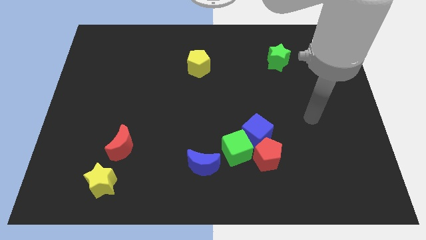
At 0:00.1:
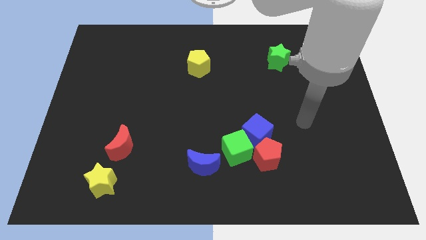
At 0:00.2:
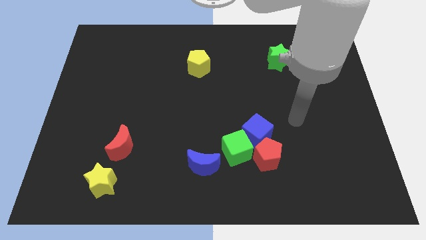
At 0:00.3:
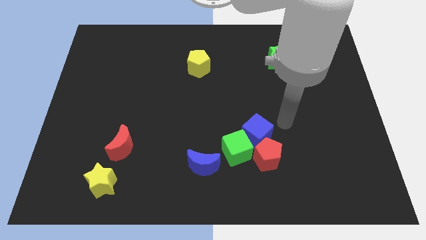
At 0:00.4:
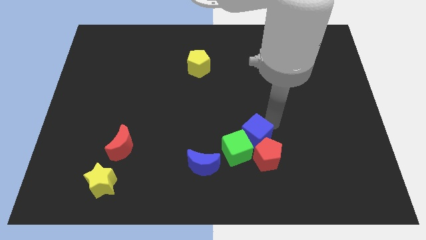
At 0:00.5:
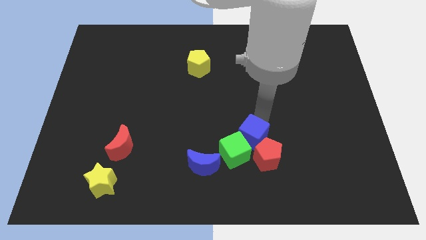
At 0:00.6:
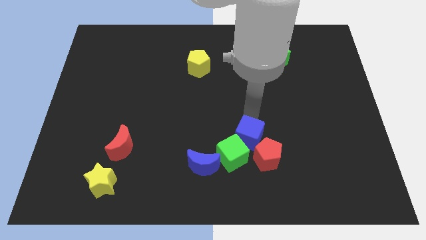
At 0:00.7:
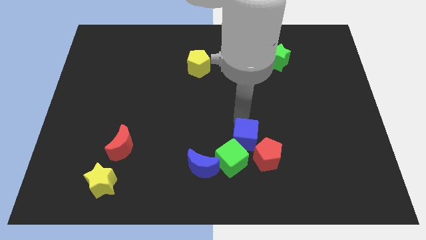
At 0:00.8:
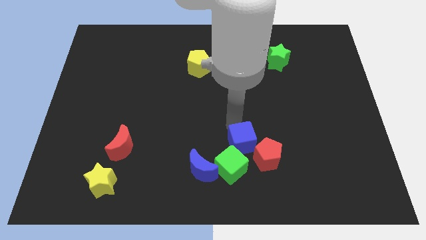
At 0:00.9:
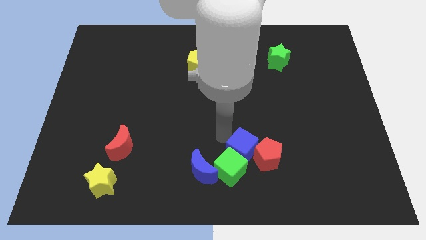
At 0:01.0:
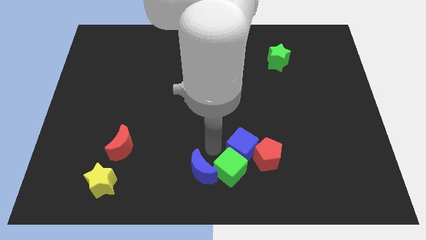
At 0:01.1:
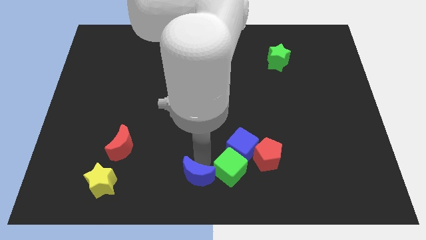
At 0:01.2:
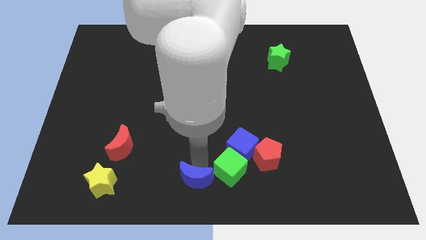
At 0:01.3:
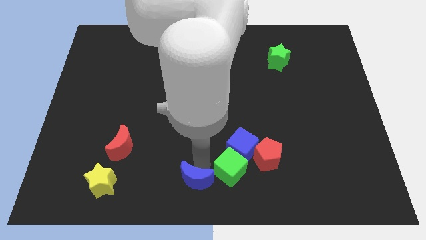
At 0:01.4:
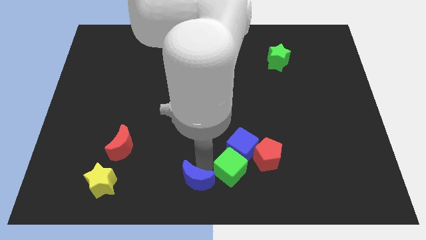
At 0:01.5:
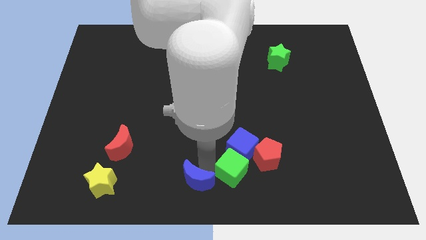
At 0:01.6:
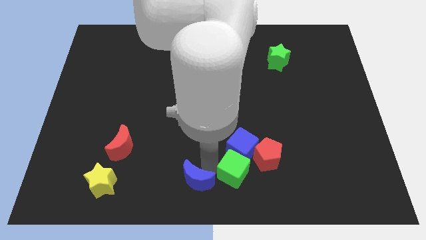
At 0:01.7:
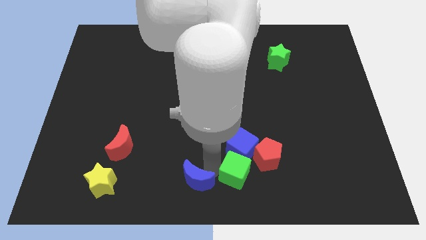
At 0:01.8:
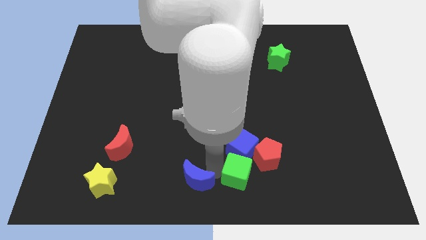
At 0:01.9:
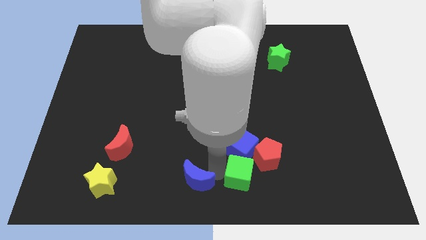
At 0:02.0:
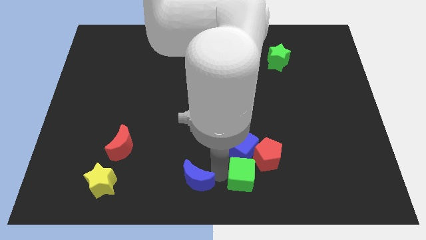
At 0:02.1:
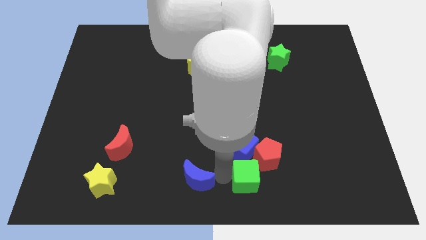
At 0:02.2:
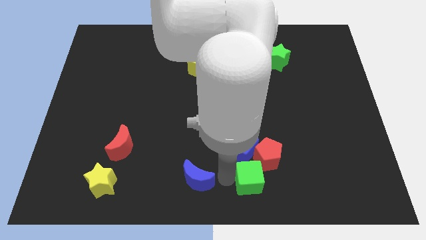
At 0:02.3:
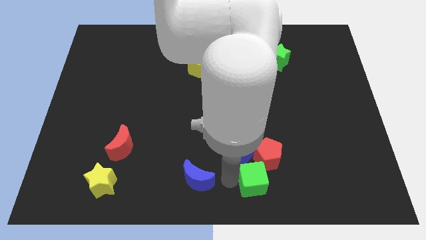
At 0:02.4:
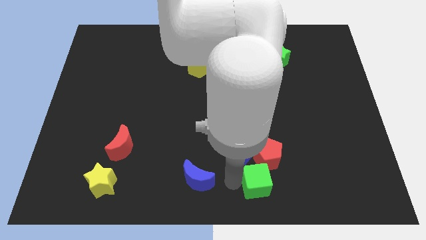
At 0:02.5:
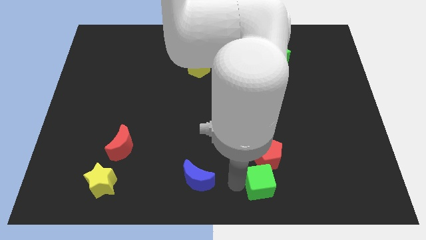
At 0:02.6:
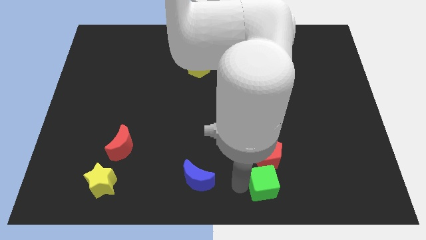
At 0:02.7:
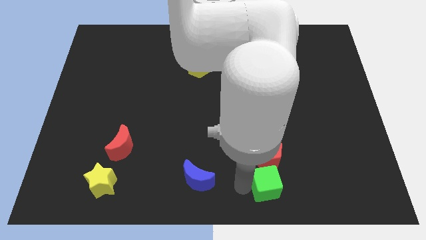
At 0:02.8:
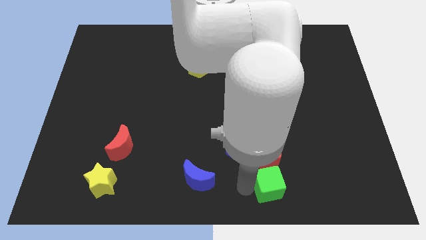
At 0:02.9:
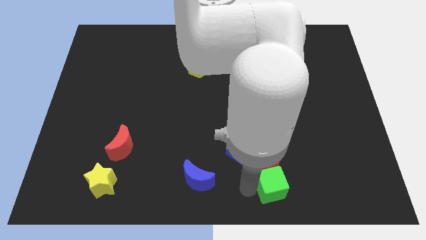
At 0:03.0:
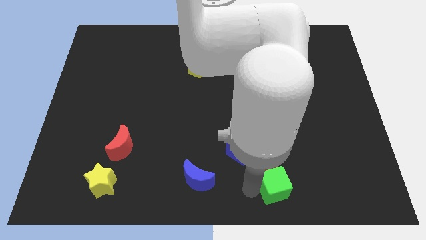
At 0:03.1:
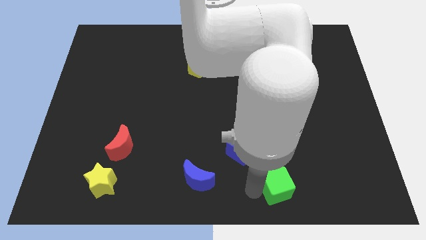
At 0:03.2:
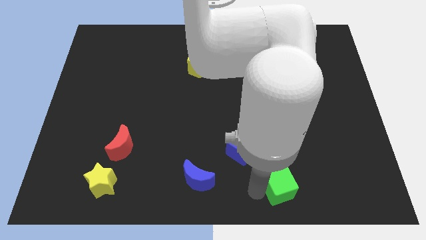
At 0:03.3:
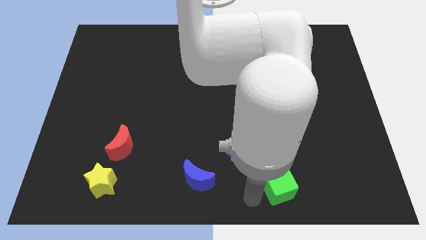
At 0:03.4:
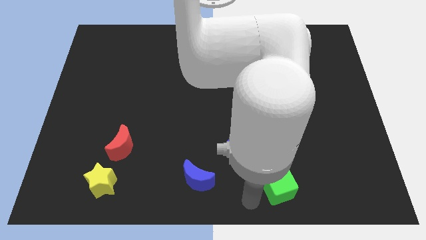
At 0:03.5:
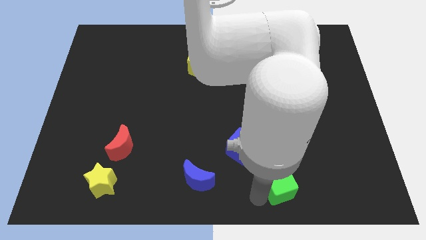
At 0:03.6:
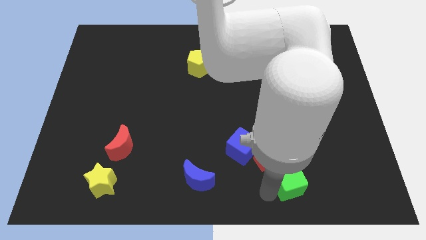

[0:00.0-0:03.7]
push the green cube a bit to the right

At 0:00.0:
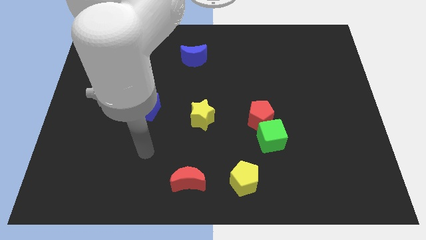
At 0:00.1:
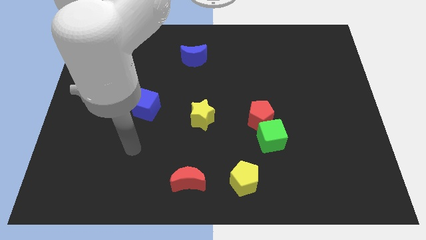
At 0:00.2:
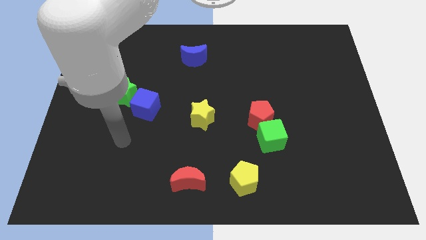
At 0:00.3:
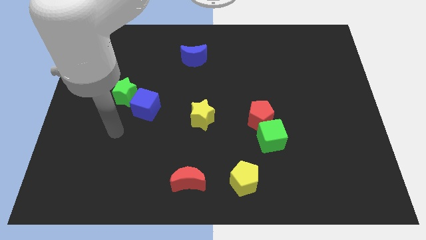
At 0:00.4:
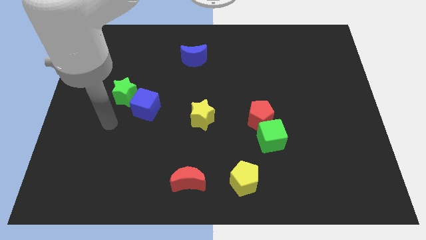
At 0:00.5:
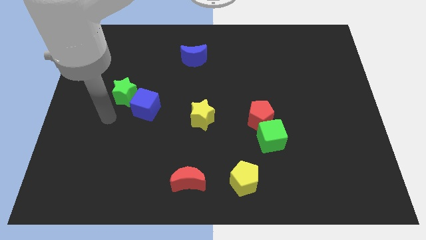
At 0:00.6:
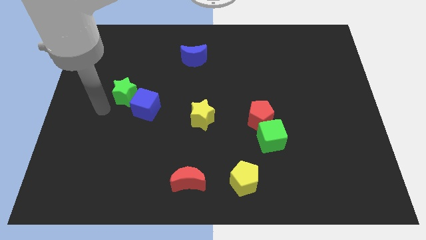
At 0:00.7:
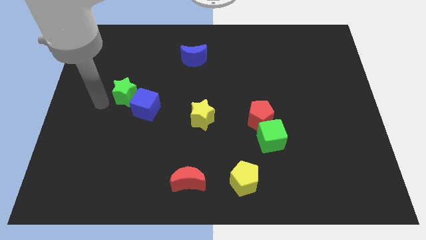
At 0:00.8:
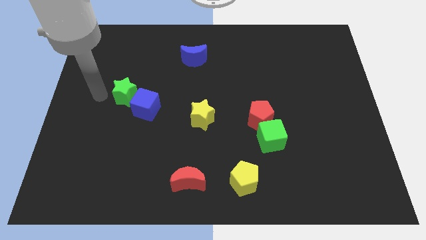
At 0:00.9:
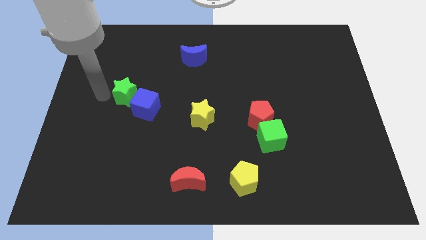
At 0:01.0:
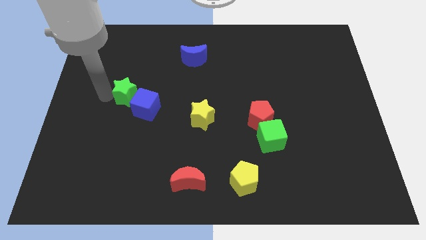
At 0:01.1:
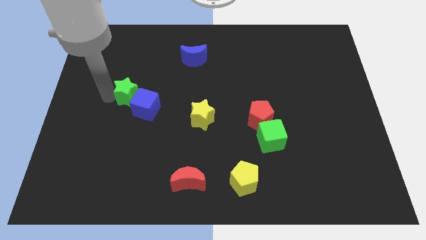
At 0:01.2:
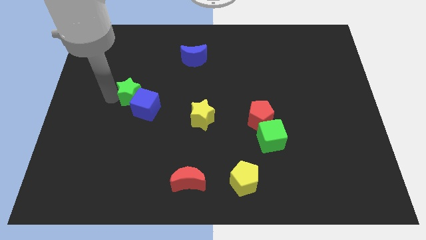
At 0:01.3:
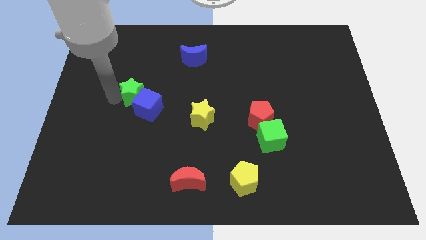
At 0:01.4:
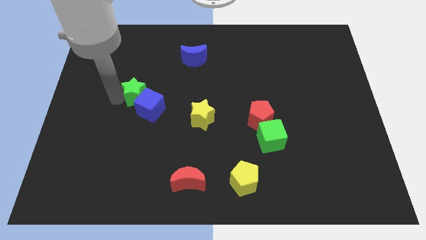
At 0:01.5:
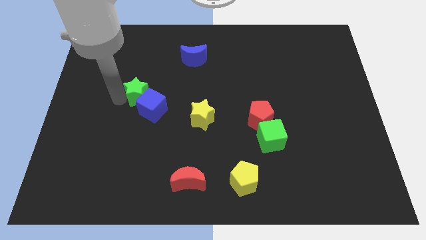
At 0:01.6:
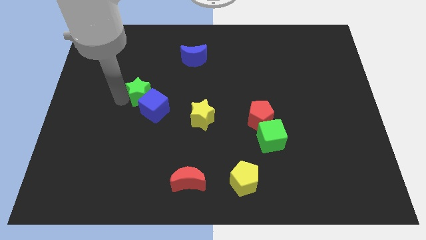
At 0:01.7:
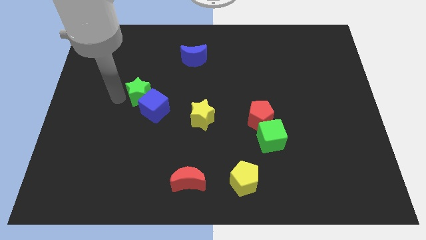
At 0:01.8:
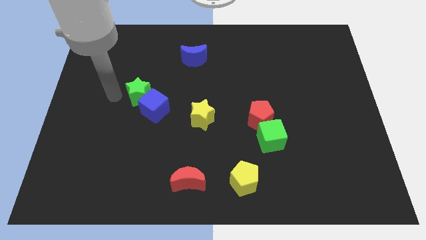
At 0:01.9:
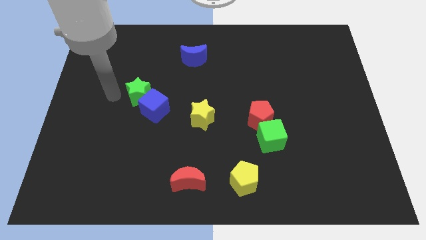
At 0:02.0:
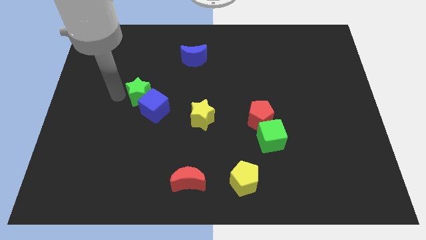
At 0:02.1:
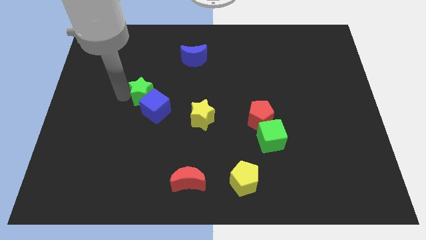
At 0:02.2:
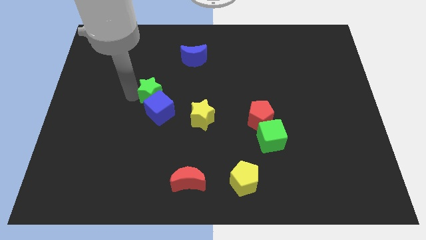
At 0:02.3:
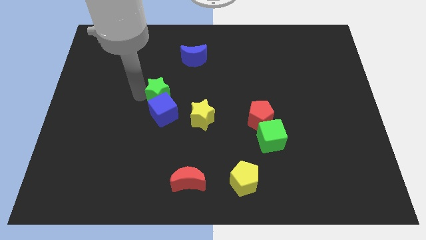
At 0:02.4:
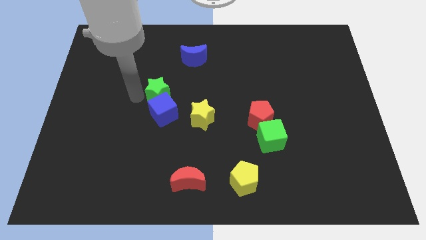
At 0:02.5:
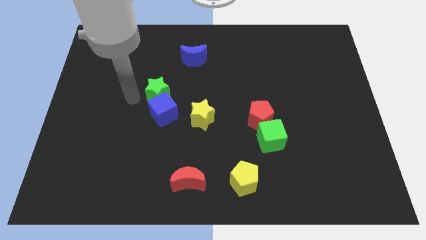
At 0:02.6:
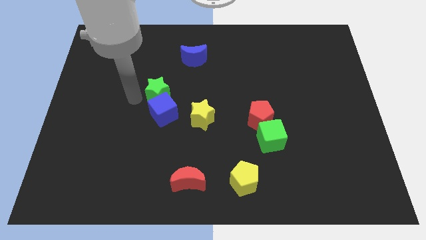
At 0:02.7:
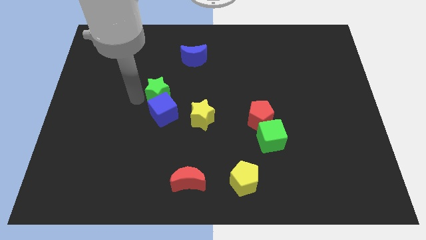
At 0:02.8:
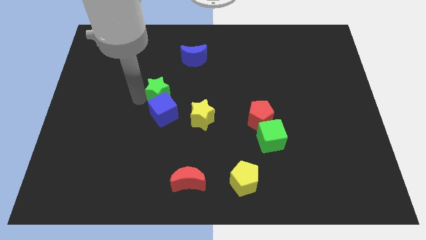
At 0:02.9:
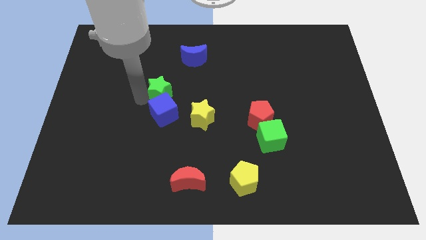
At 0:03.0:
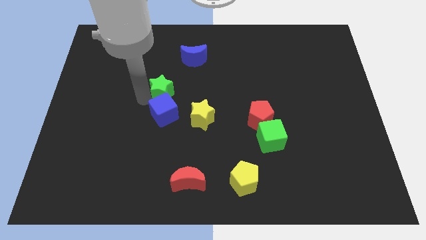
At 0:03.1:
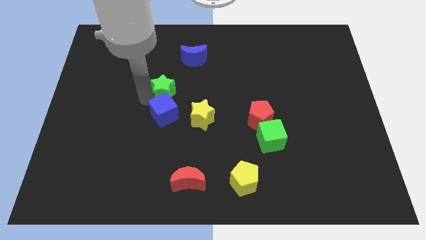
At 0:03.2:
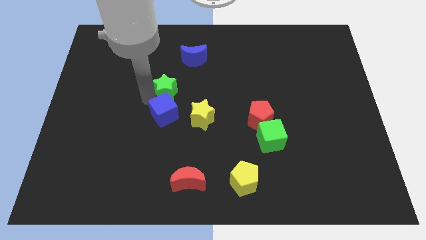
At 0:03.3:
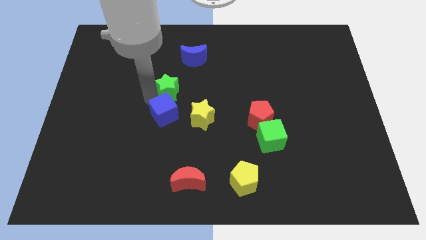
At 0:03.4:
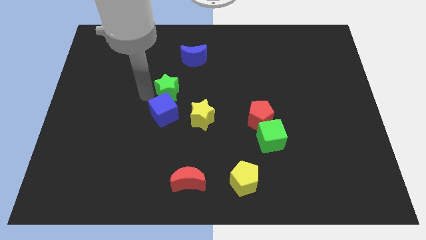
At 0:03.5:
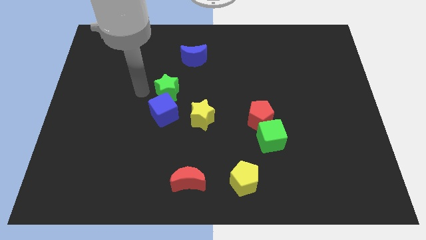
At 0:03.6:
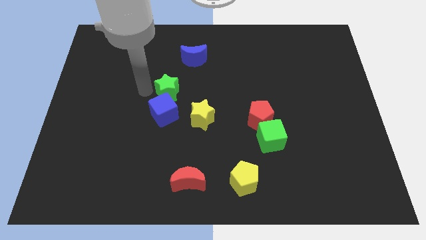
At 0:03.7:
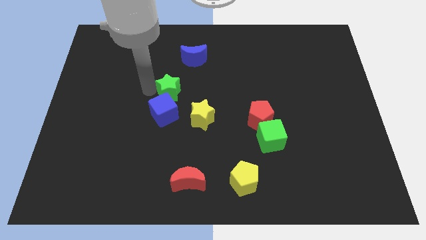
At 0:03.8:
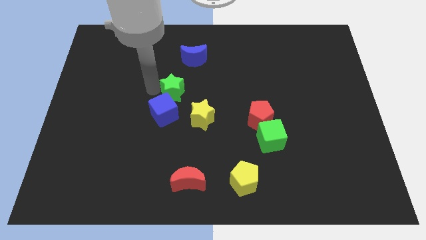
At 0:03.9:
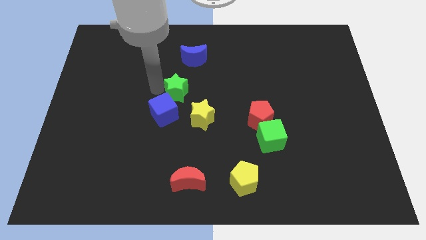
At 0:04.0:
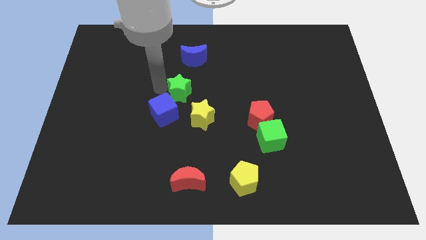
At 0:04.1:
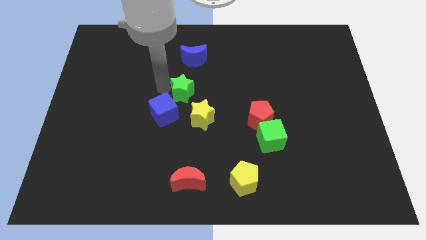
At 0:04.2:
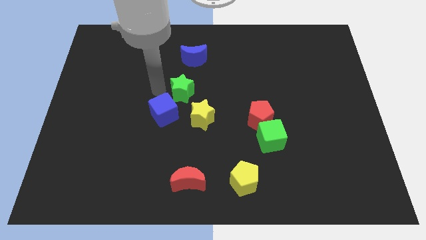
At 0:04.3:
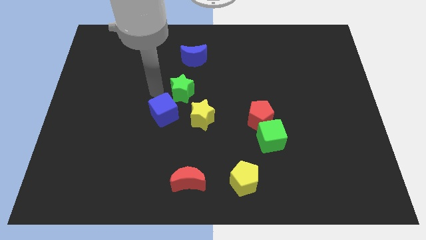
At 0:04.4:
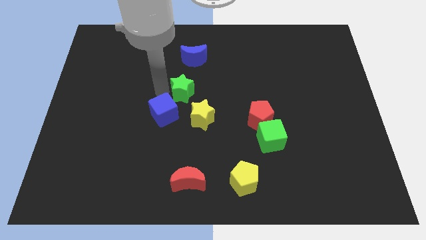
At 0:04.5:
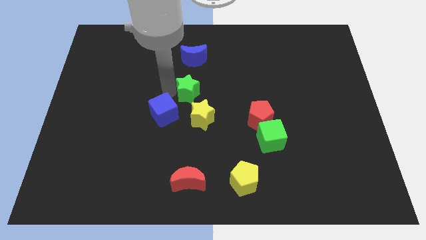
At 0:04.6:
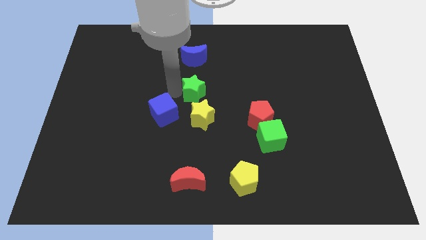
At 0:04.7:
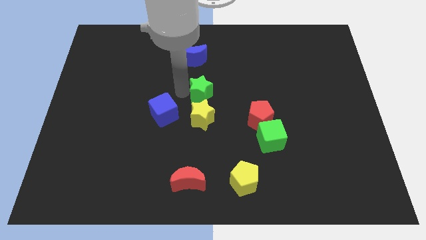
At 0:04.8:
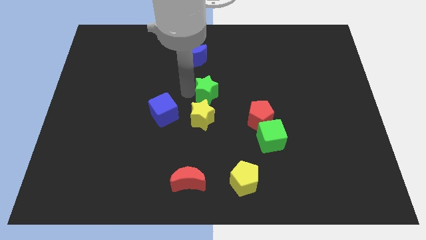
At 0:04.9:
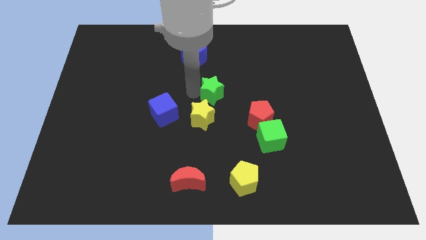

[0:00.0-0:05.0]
push the green star right
